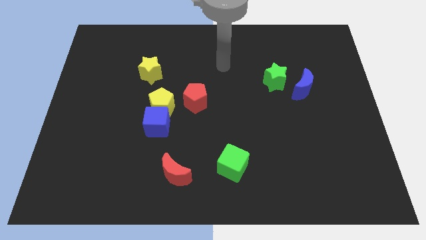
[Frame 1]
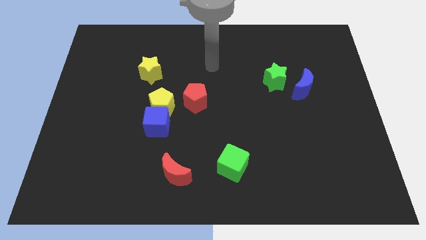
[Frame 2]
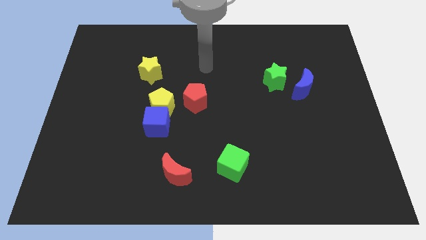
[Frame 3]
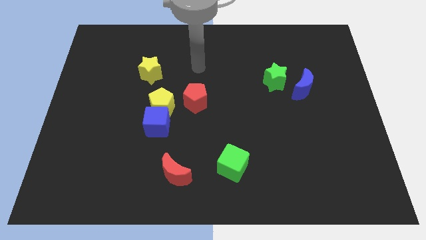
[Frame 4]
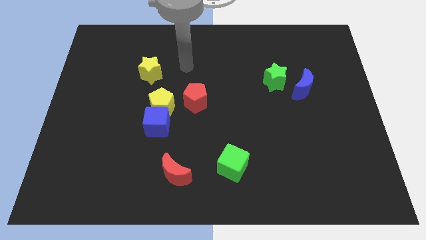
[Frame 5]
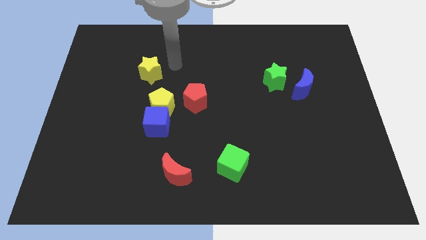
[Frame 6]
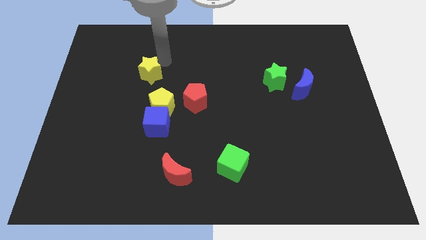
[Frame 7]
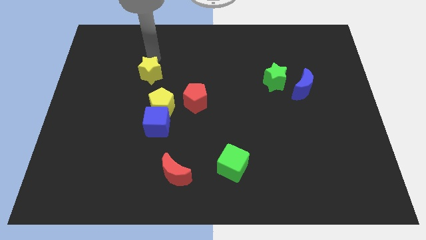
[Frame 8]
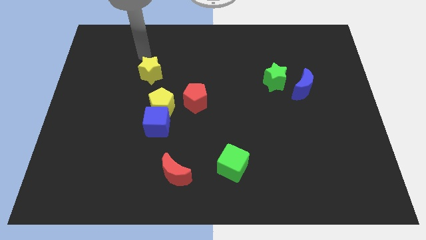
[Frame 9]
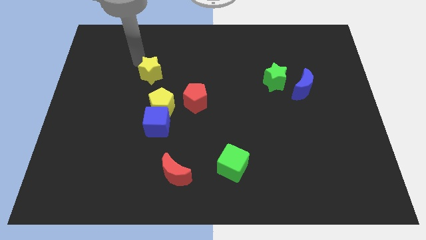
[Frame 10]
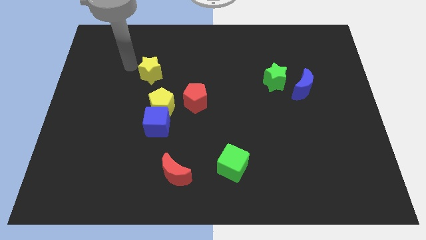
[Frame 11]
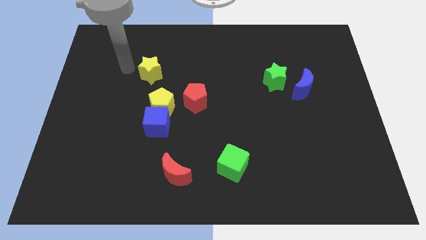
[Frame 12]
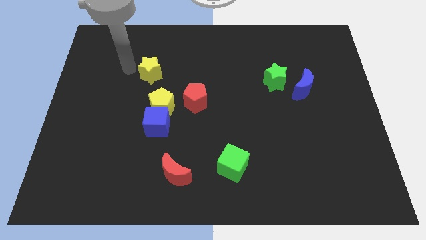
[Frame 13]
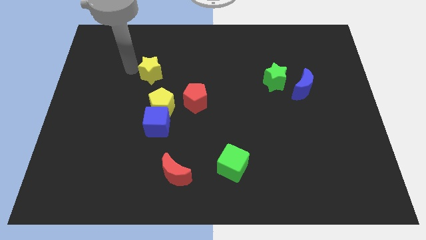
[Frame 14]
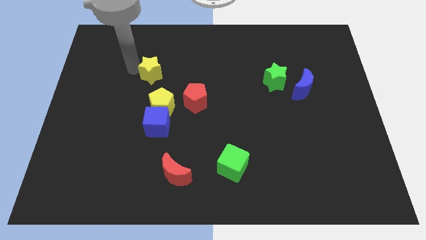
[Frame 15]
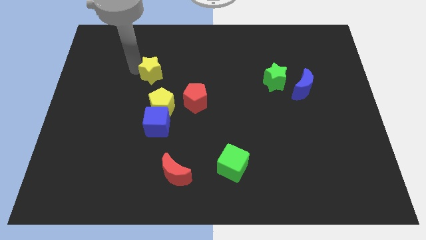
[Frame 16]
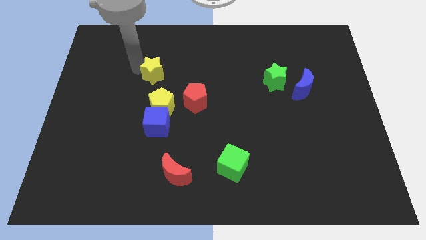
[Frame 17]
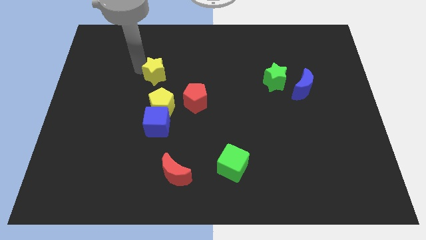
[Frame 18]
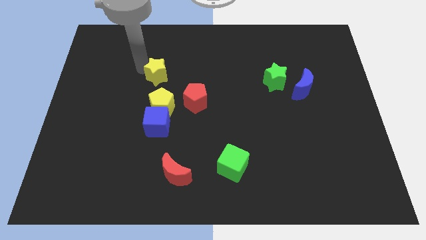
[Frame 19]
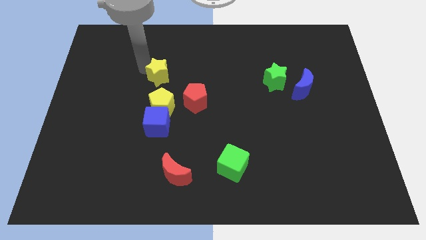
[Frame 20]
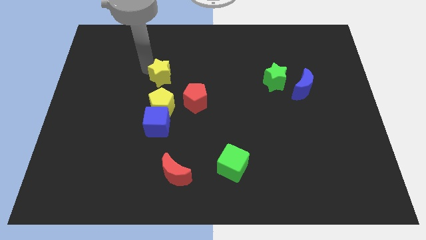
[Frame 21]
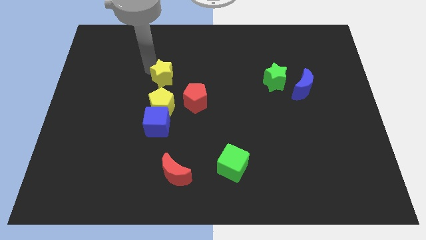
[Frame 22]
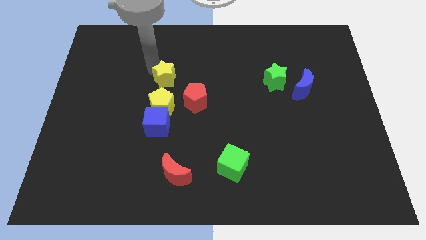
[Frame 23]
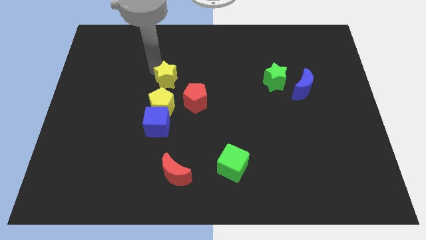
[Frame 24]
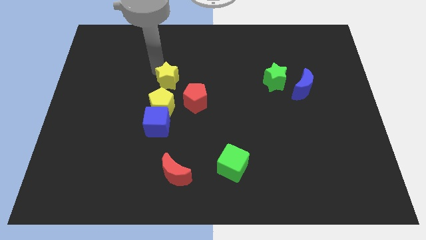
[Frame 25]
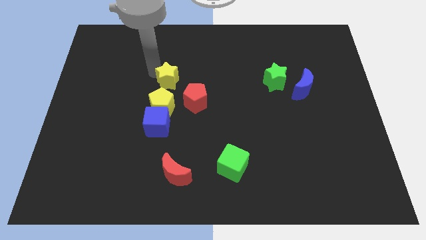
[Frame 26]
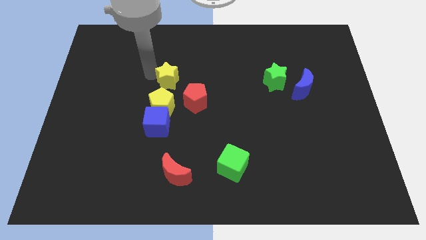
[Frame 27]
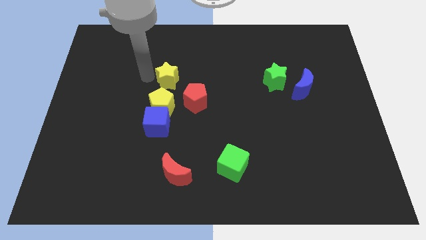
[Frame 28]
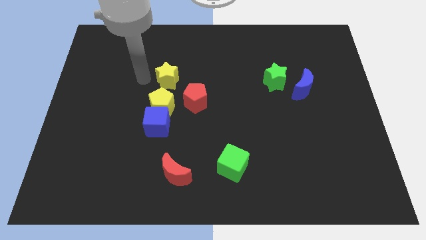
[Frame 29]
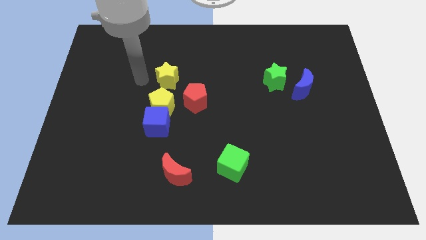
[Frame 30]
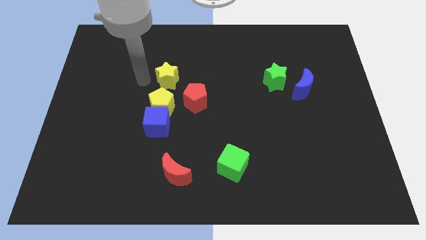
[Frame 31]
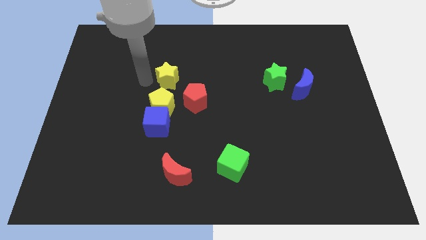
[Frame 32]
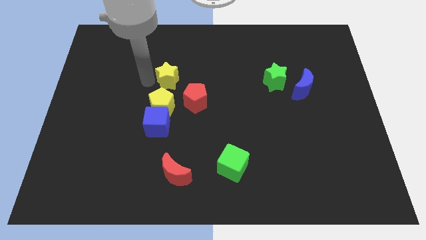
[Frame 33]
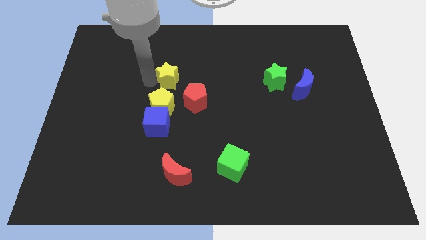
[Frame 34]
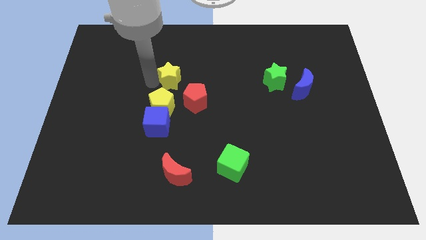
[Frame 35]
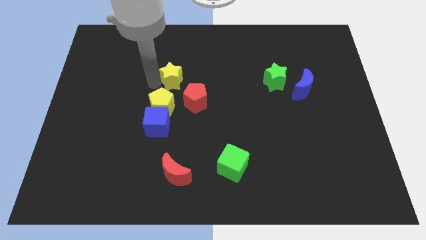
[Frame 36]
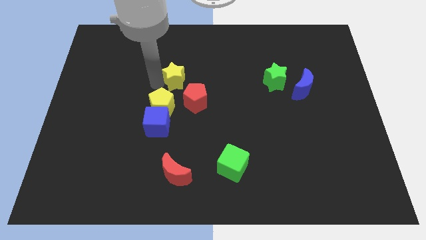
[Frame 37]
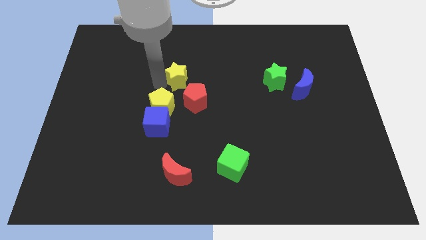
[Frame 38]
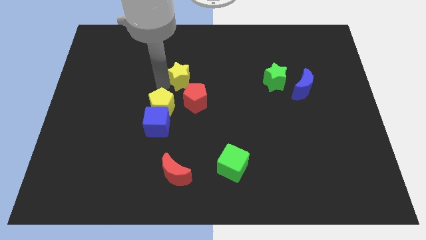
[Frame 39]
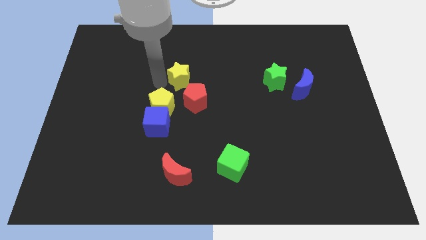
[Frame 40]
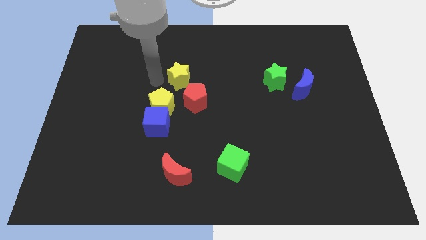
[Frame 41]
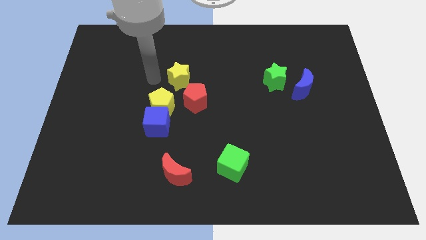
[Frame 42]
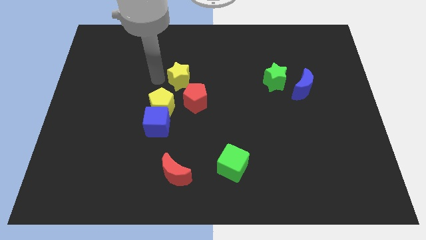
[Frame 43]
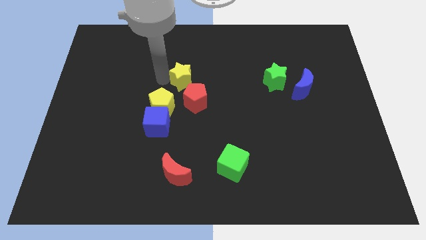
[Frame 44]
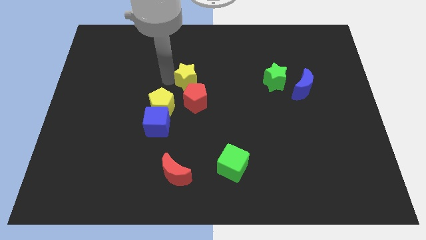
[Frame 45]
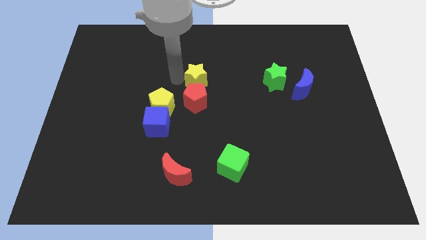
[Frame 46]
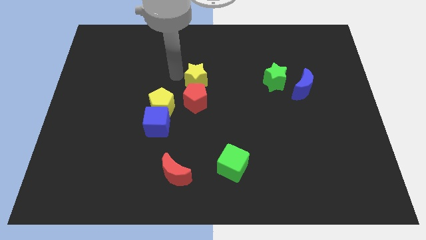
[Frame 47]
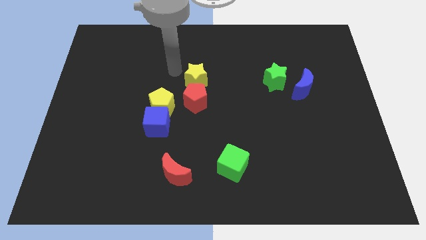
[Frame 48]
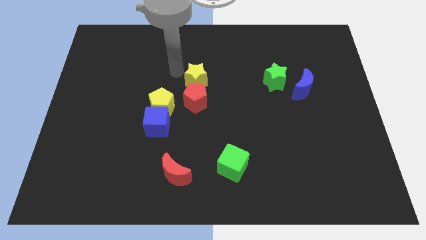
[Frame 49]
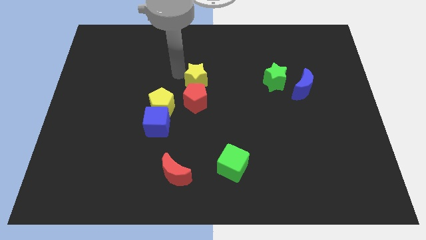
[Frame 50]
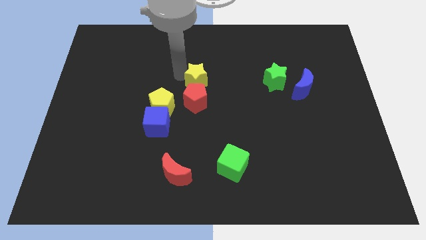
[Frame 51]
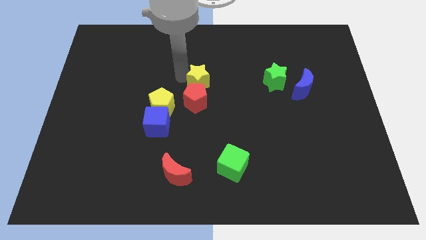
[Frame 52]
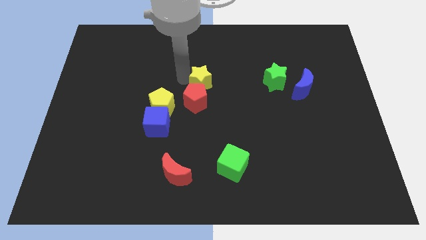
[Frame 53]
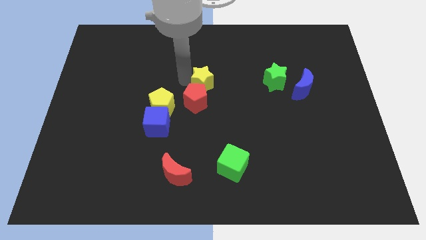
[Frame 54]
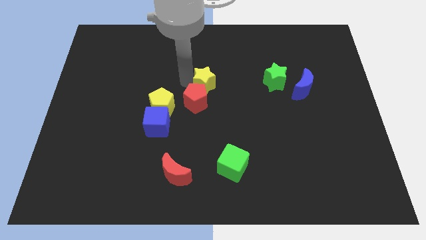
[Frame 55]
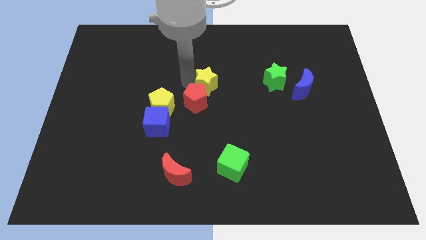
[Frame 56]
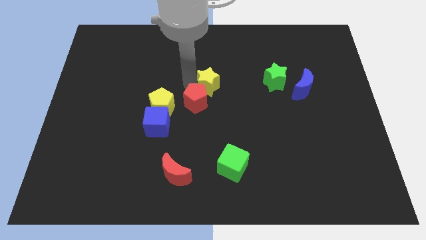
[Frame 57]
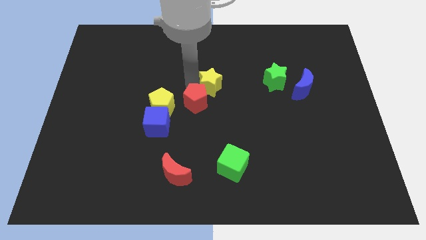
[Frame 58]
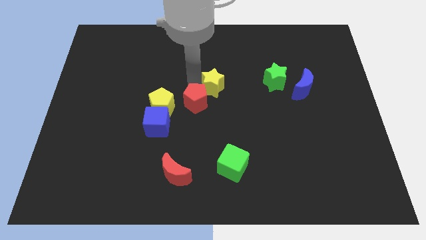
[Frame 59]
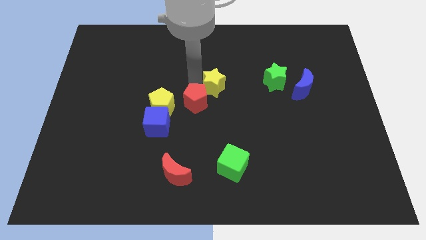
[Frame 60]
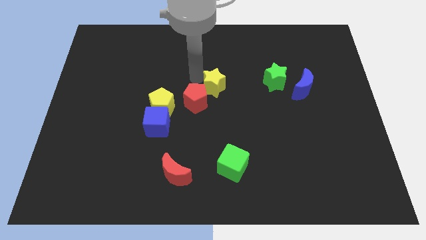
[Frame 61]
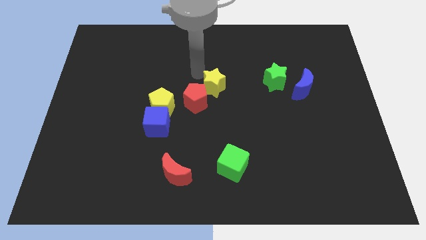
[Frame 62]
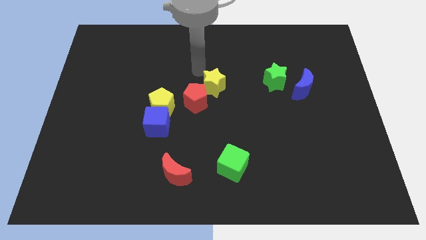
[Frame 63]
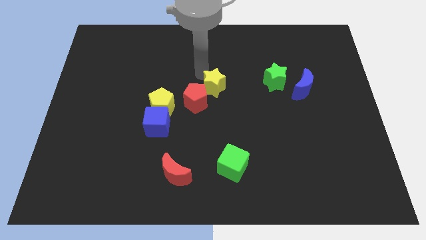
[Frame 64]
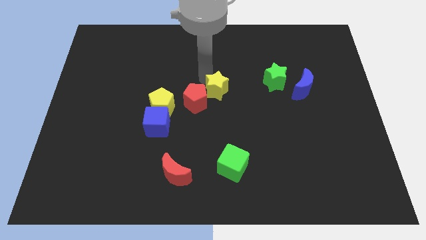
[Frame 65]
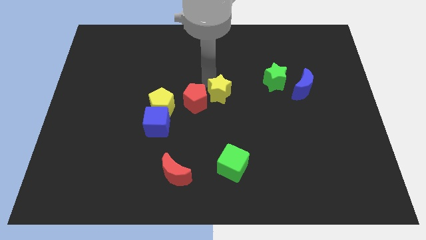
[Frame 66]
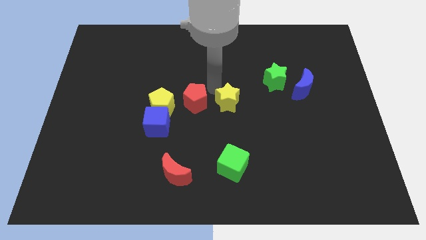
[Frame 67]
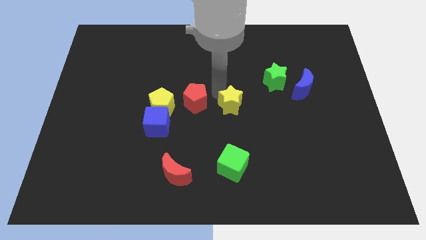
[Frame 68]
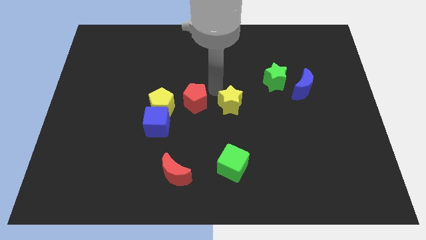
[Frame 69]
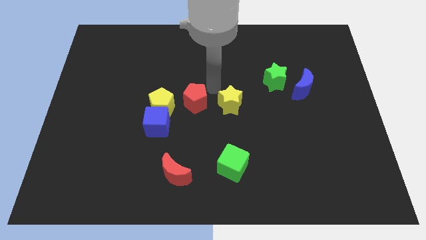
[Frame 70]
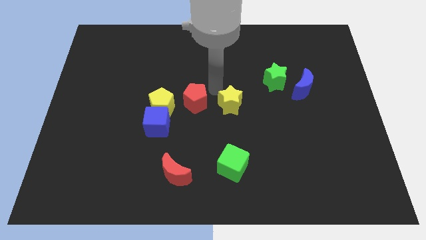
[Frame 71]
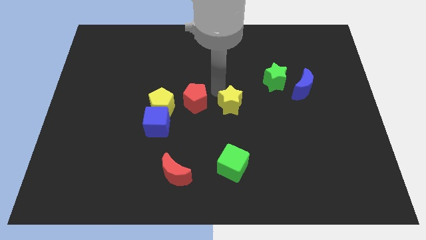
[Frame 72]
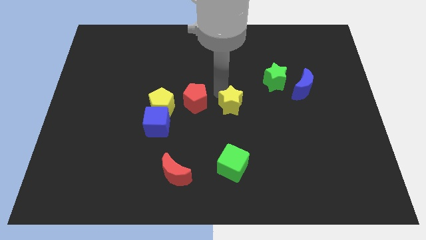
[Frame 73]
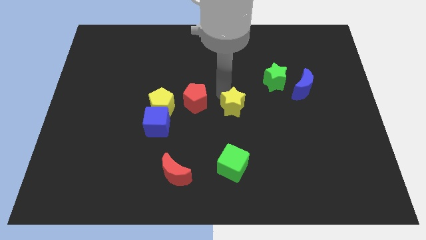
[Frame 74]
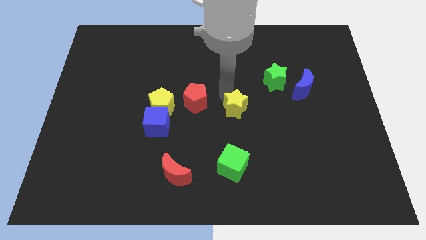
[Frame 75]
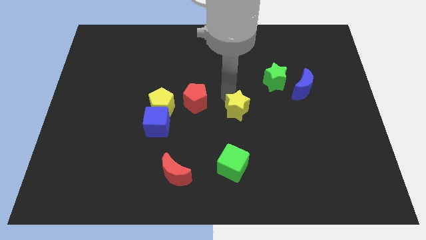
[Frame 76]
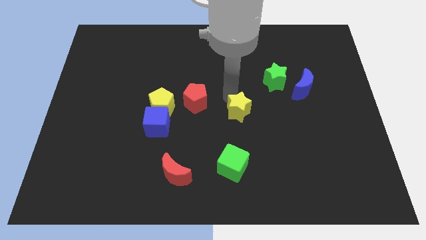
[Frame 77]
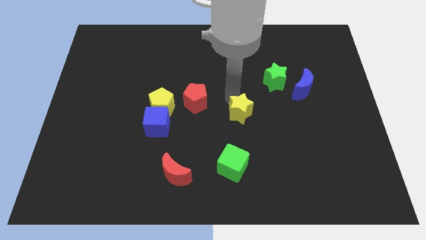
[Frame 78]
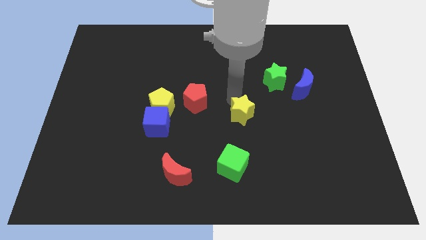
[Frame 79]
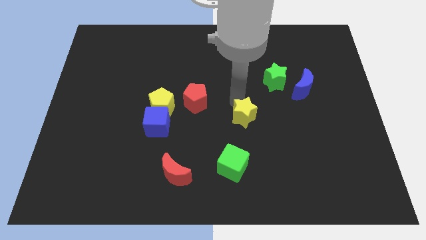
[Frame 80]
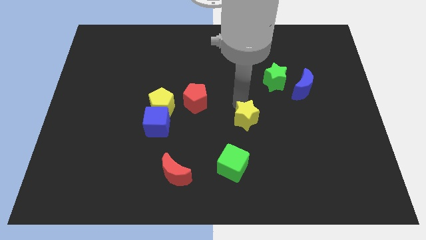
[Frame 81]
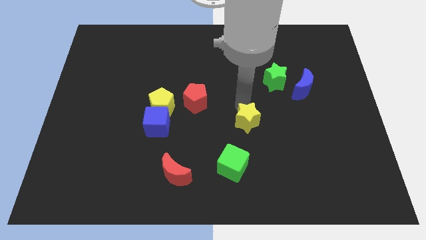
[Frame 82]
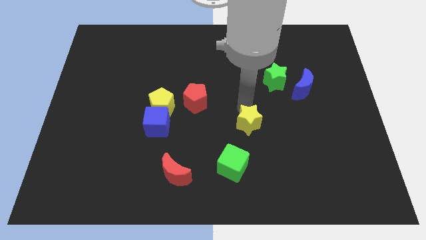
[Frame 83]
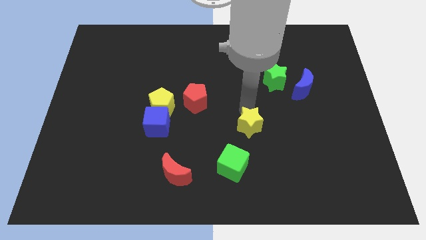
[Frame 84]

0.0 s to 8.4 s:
slide the yellow star diagonally up and to the right of the green cube
